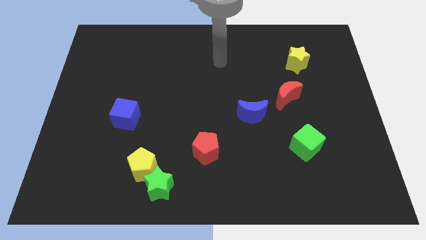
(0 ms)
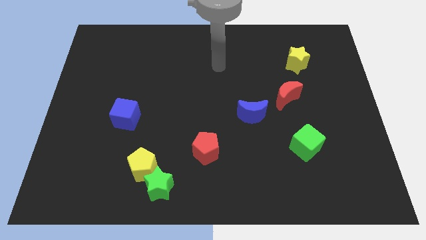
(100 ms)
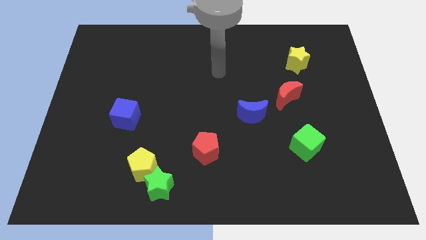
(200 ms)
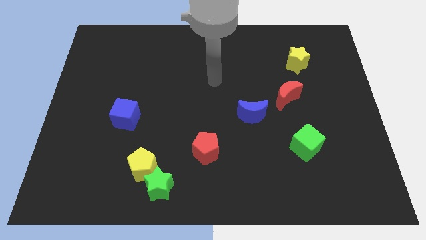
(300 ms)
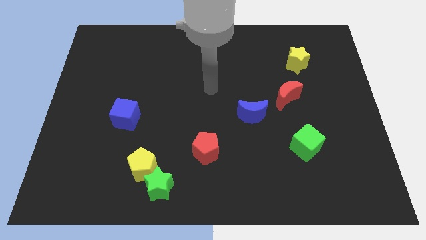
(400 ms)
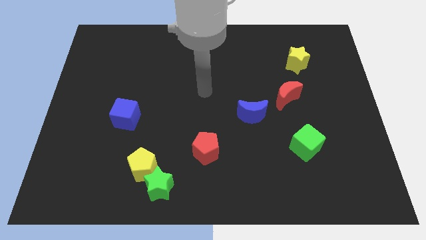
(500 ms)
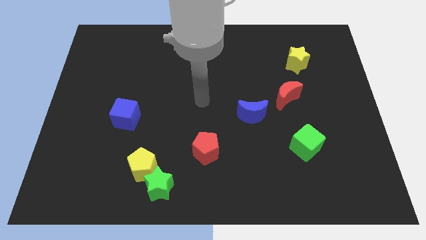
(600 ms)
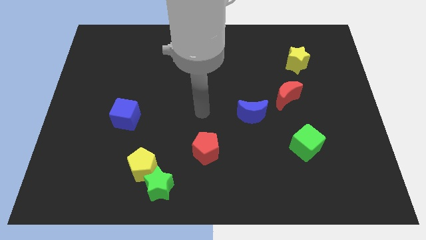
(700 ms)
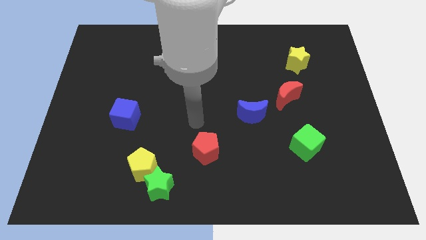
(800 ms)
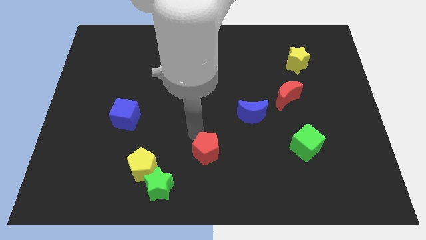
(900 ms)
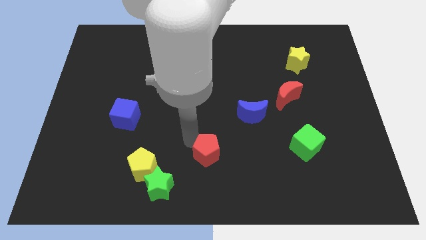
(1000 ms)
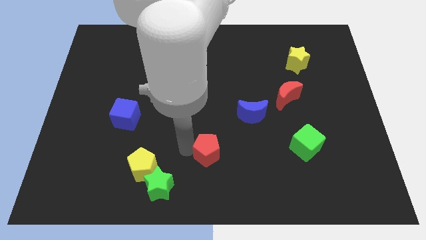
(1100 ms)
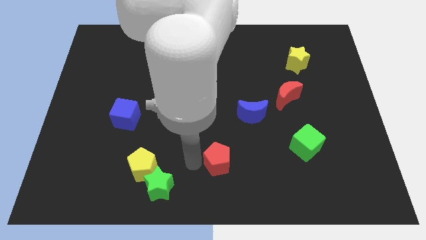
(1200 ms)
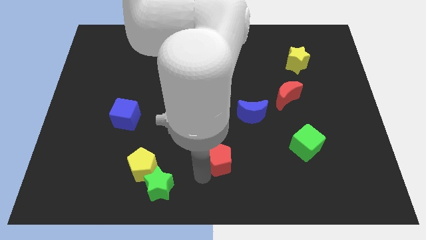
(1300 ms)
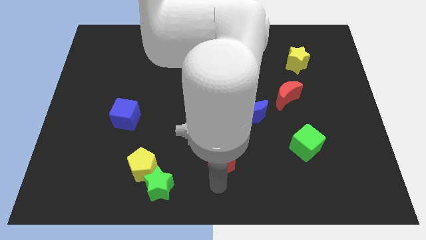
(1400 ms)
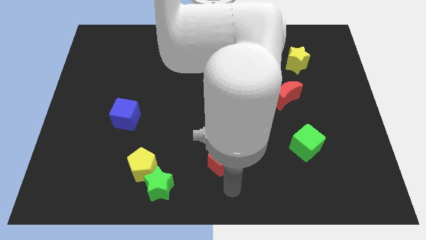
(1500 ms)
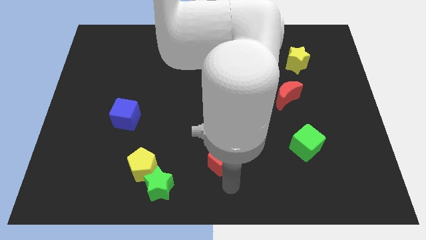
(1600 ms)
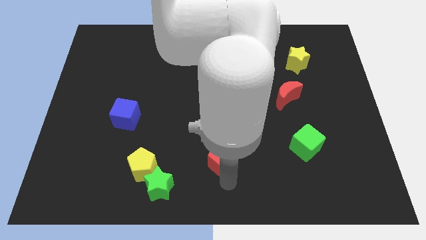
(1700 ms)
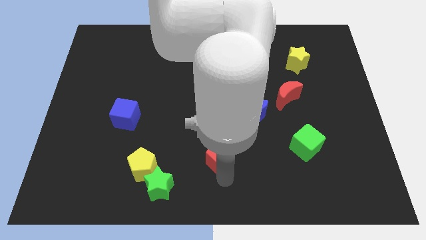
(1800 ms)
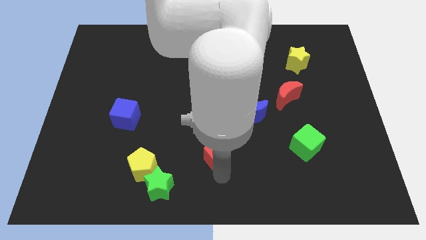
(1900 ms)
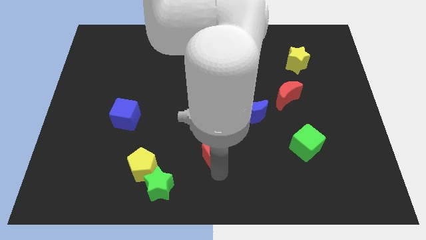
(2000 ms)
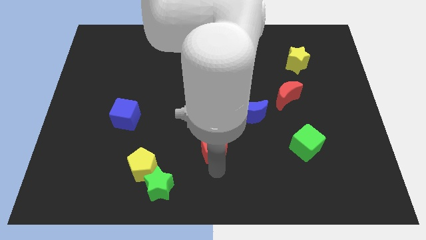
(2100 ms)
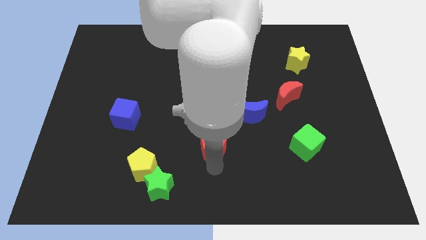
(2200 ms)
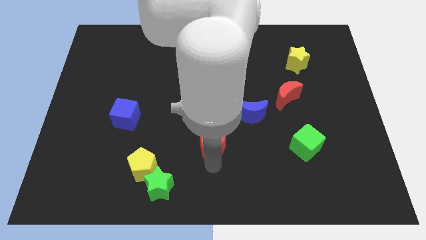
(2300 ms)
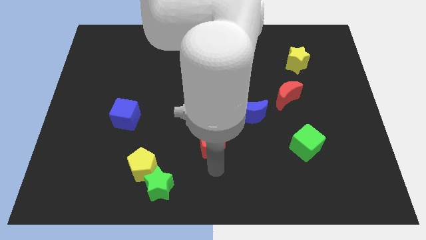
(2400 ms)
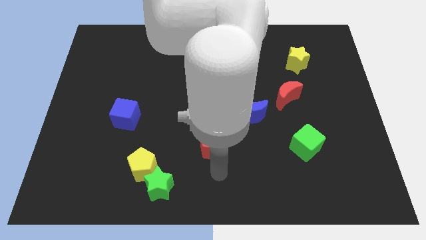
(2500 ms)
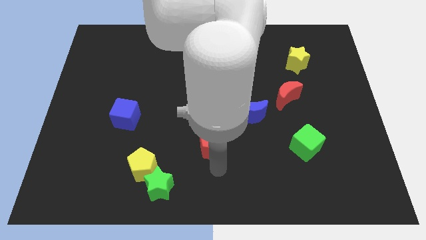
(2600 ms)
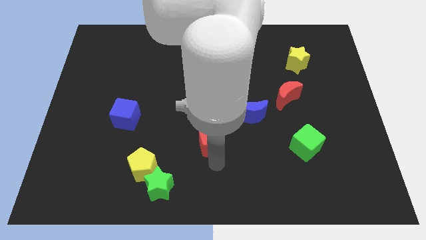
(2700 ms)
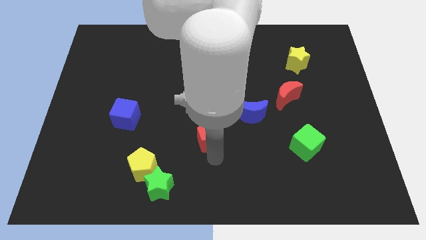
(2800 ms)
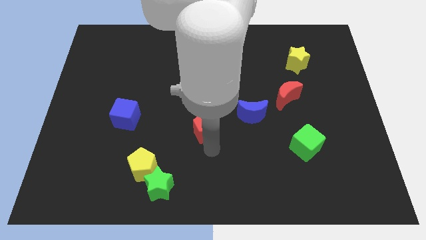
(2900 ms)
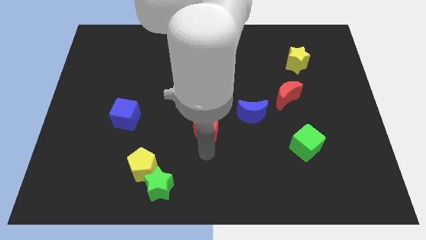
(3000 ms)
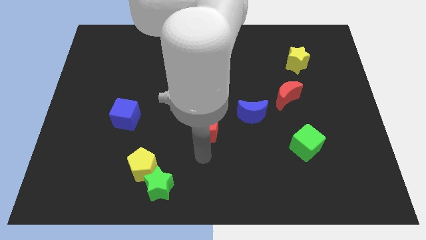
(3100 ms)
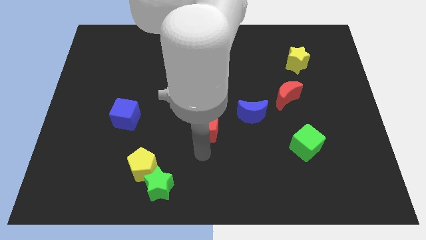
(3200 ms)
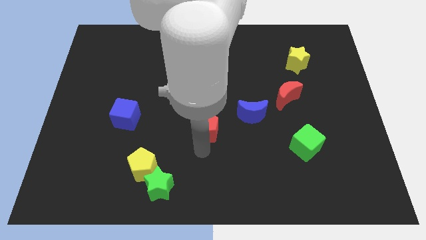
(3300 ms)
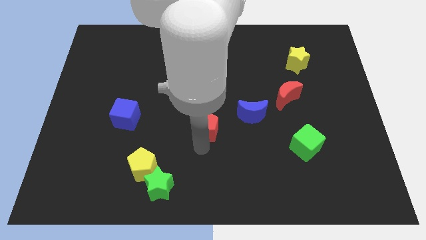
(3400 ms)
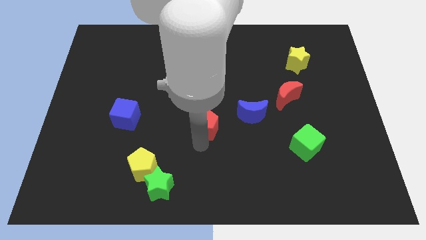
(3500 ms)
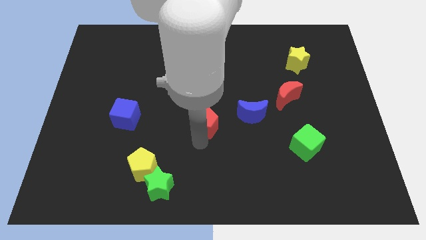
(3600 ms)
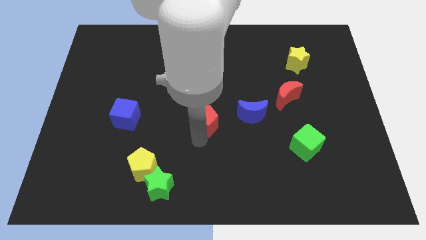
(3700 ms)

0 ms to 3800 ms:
move the red pentagon a bit up

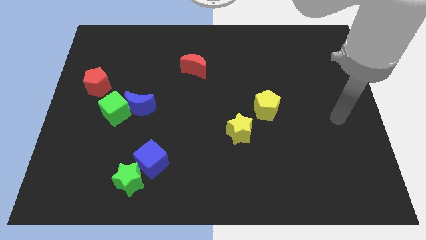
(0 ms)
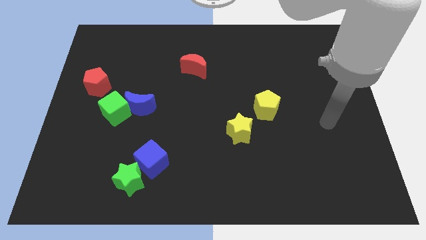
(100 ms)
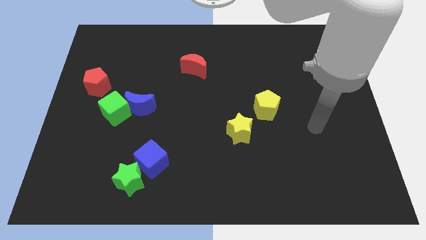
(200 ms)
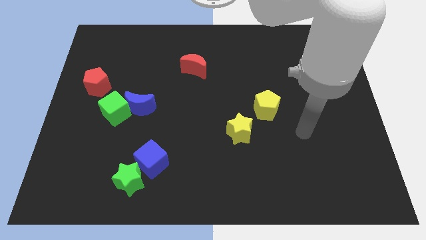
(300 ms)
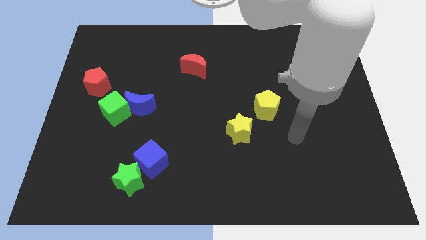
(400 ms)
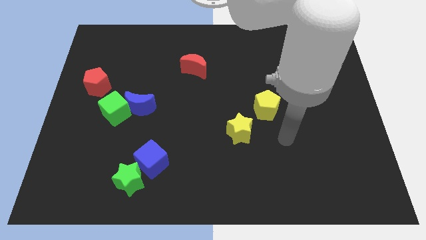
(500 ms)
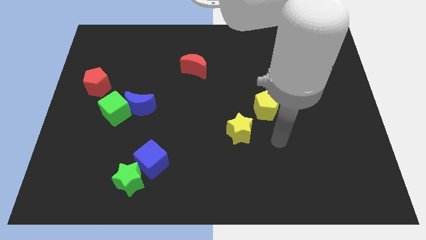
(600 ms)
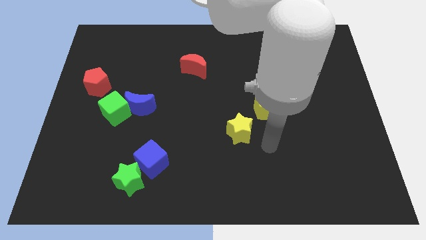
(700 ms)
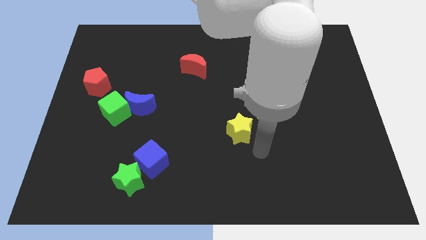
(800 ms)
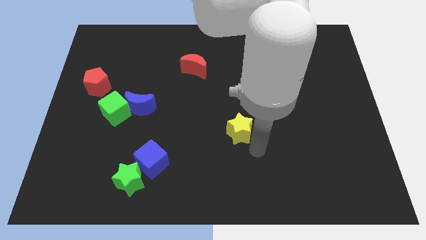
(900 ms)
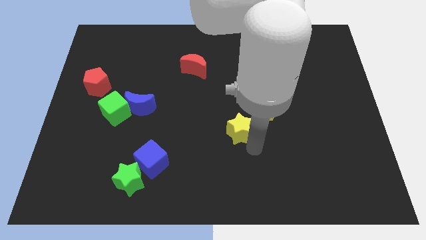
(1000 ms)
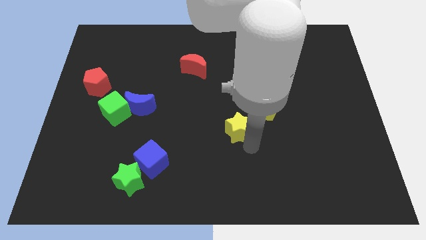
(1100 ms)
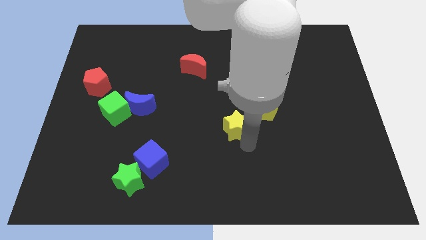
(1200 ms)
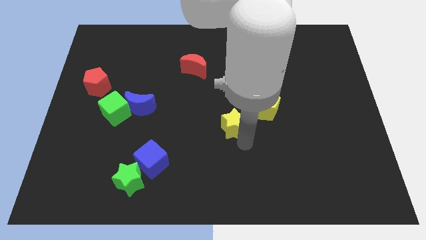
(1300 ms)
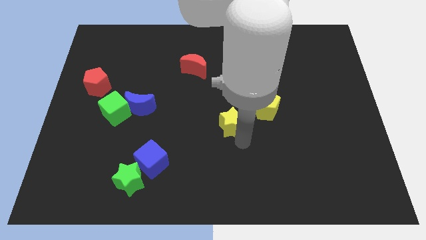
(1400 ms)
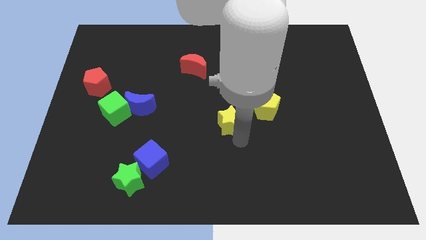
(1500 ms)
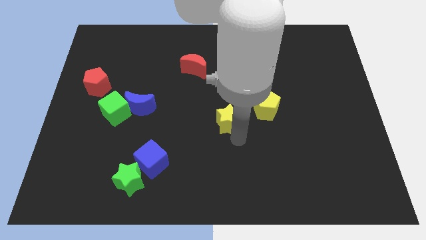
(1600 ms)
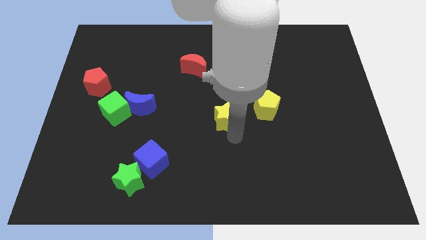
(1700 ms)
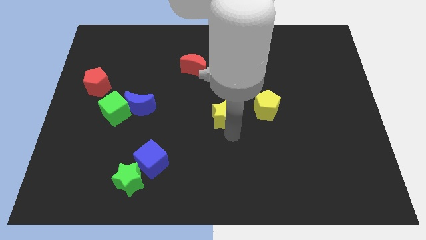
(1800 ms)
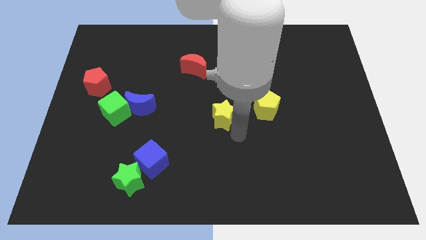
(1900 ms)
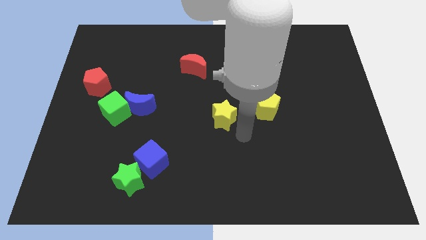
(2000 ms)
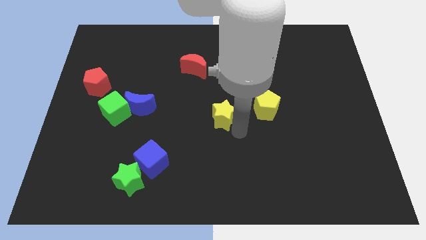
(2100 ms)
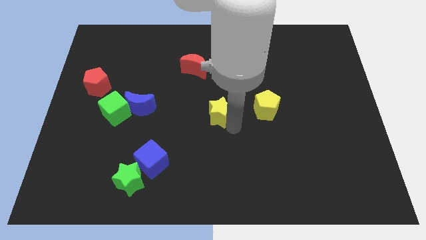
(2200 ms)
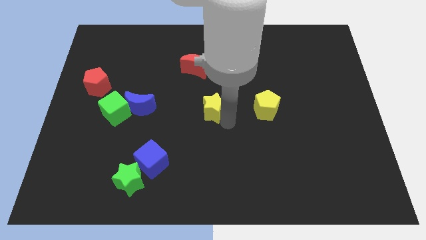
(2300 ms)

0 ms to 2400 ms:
slide the yellow star slightly diagonally upwards and to the left

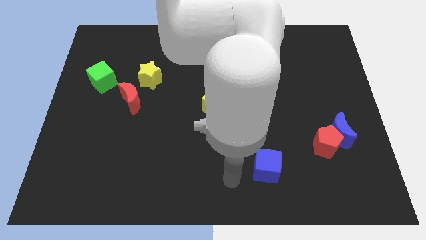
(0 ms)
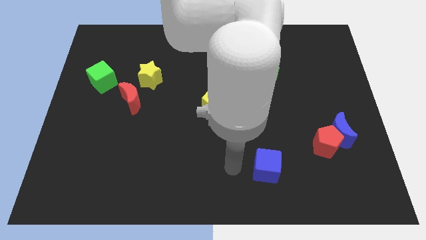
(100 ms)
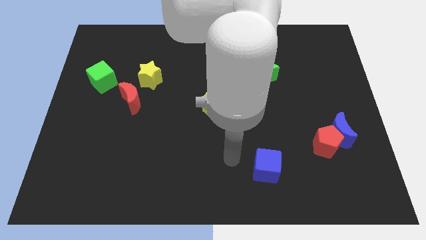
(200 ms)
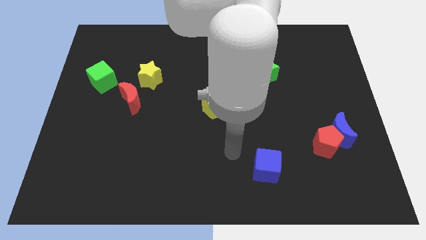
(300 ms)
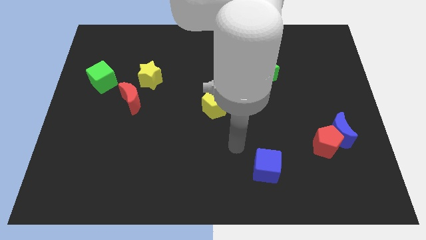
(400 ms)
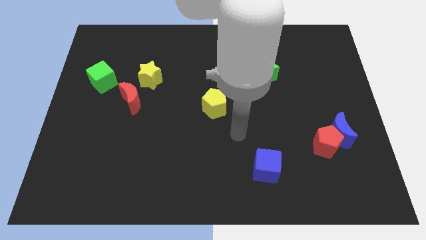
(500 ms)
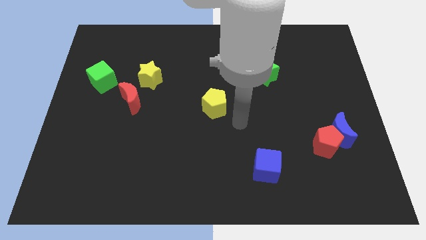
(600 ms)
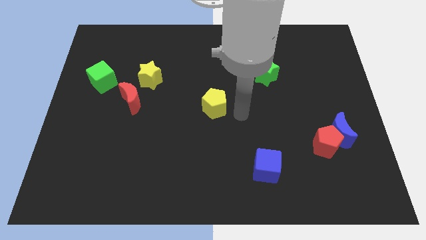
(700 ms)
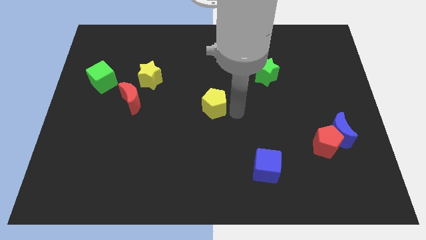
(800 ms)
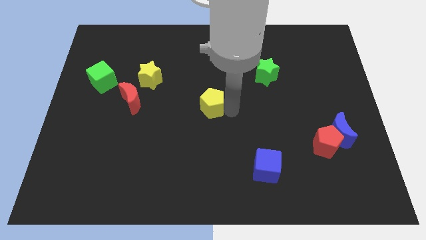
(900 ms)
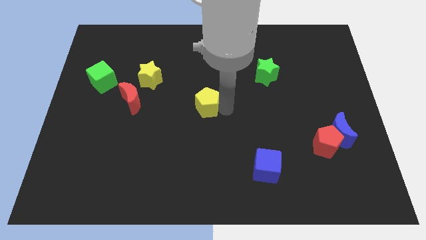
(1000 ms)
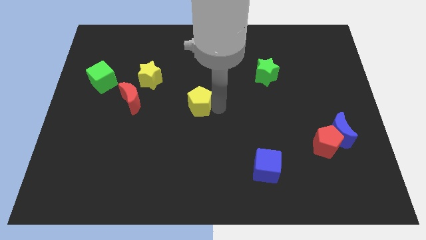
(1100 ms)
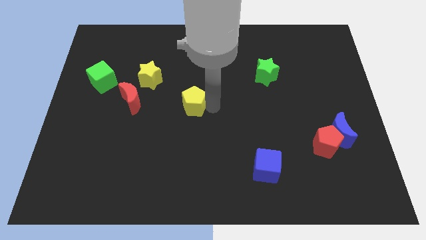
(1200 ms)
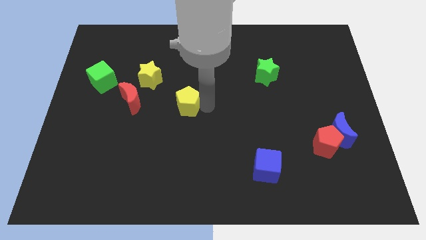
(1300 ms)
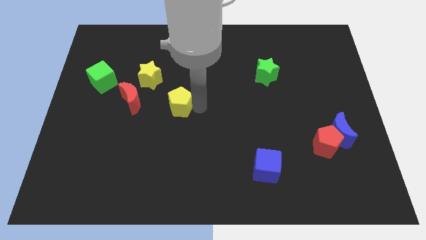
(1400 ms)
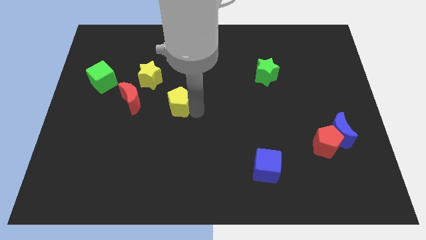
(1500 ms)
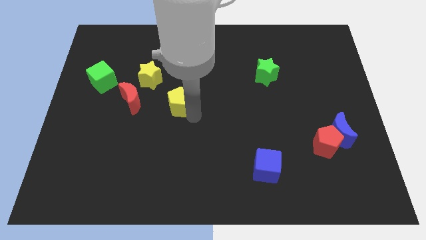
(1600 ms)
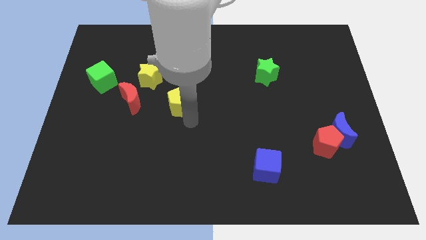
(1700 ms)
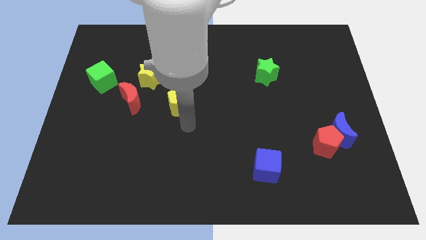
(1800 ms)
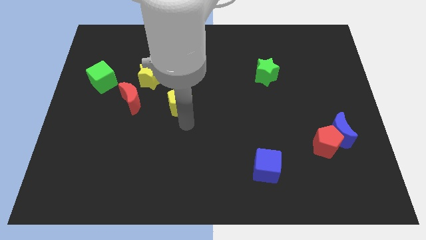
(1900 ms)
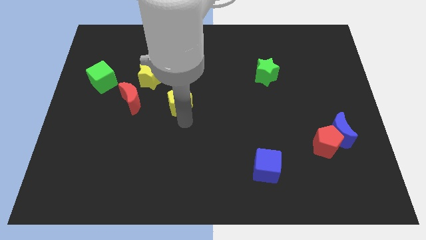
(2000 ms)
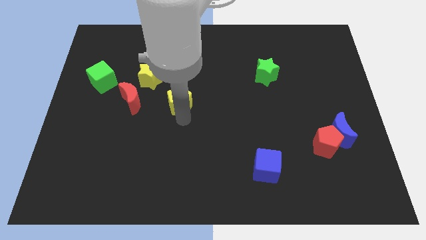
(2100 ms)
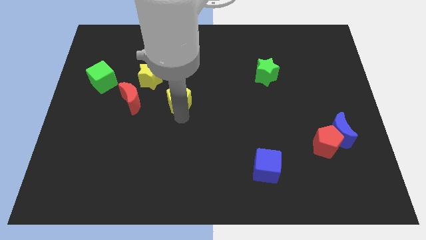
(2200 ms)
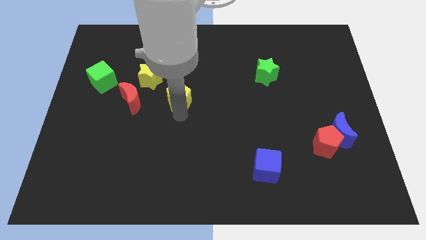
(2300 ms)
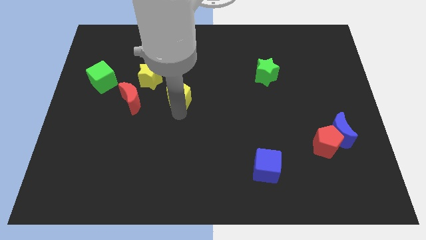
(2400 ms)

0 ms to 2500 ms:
slide the yellow pentagon a little diagonally up and left
